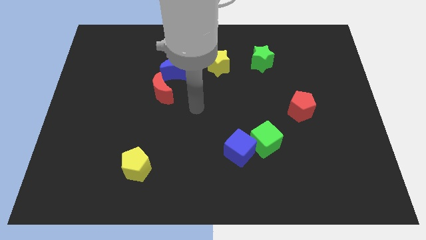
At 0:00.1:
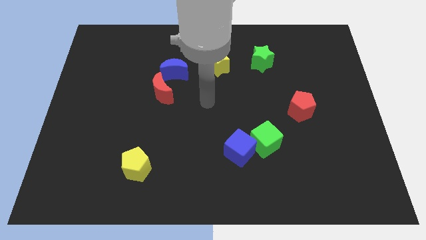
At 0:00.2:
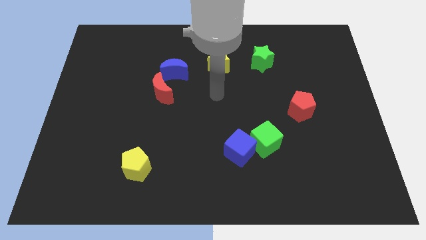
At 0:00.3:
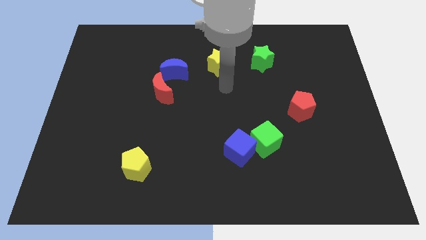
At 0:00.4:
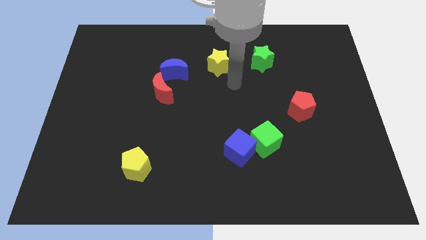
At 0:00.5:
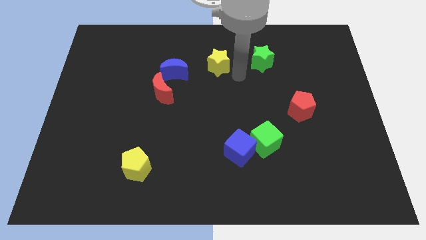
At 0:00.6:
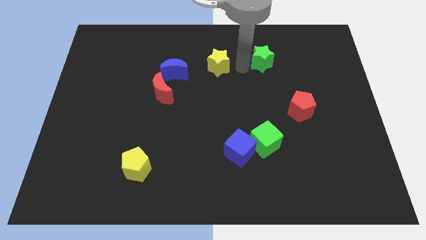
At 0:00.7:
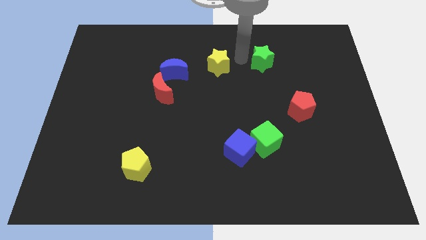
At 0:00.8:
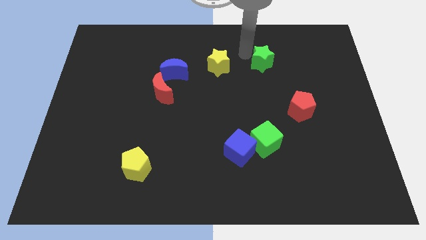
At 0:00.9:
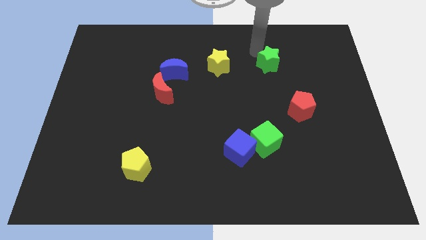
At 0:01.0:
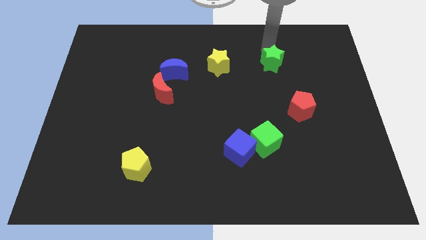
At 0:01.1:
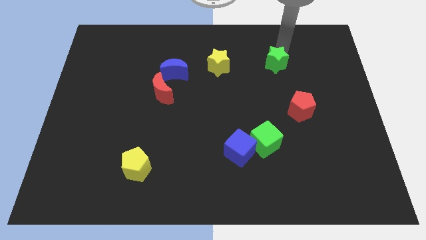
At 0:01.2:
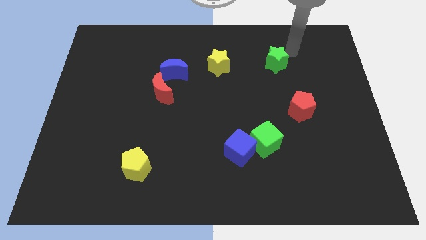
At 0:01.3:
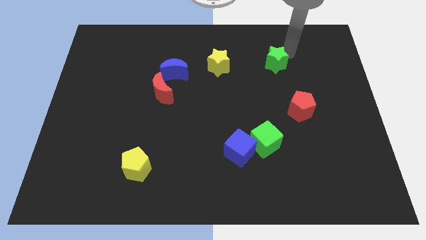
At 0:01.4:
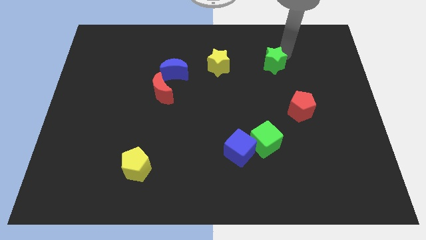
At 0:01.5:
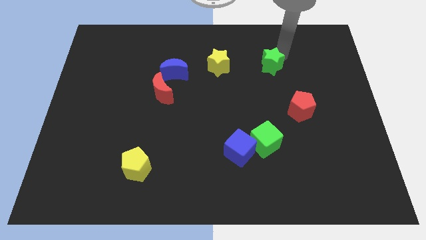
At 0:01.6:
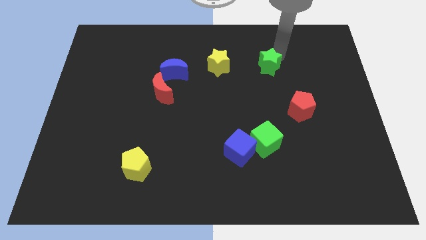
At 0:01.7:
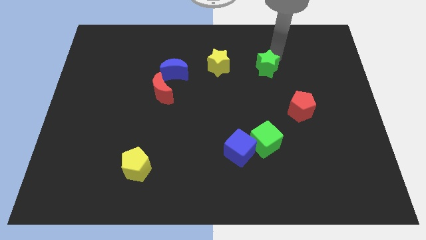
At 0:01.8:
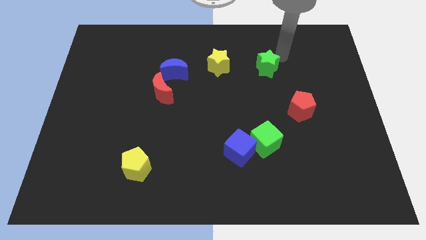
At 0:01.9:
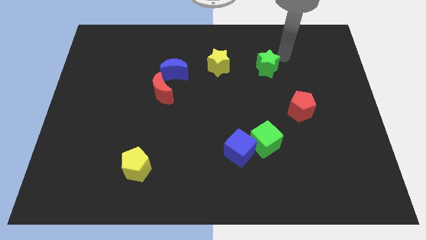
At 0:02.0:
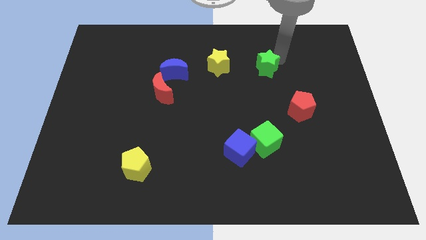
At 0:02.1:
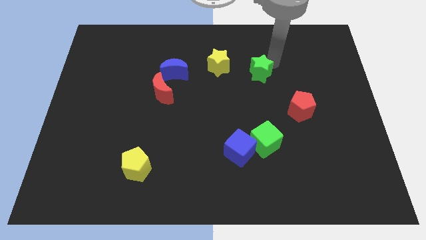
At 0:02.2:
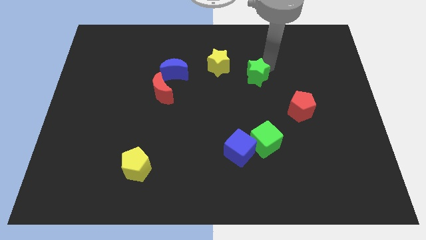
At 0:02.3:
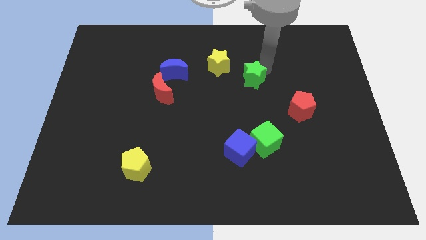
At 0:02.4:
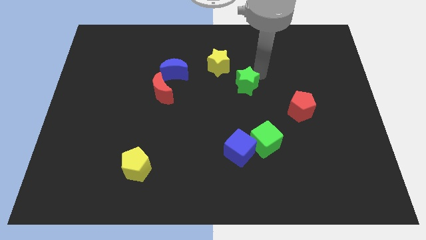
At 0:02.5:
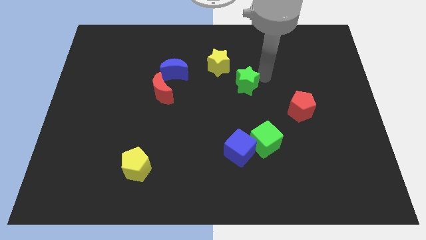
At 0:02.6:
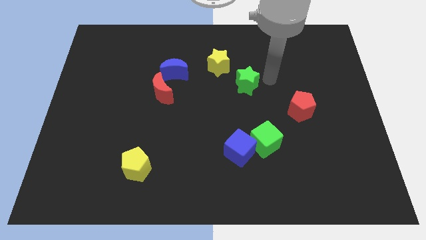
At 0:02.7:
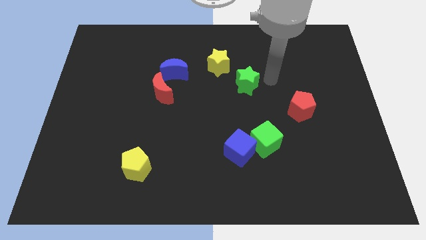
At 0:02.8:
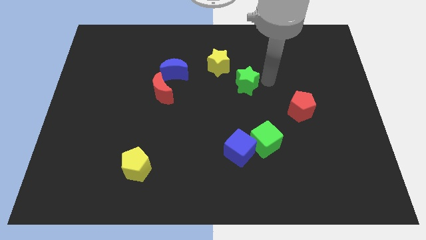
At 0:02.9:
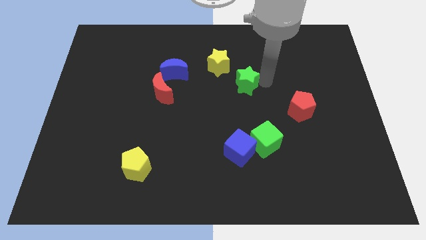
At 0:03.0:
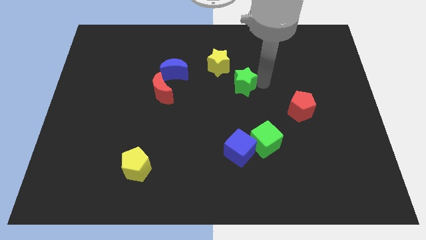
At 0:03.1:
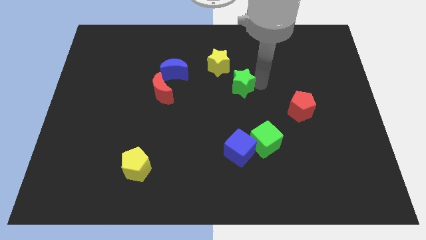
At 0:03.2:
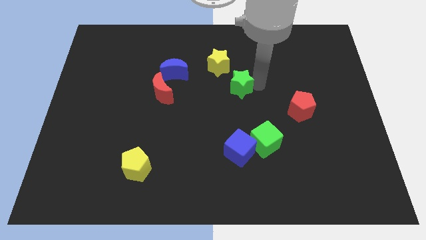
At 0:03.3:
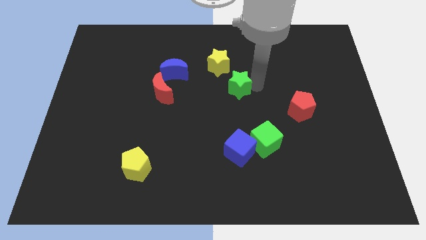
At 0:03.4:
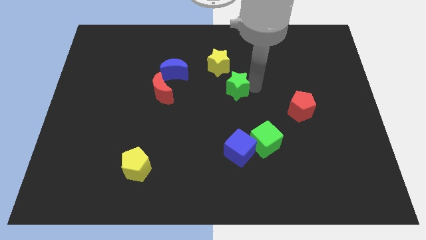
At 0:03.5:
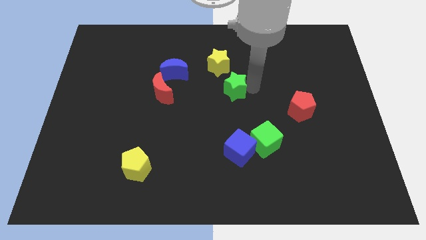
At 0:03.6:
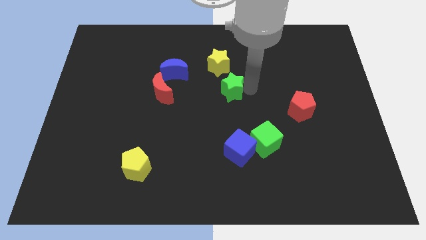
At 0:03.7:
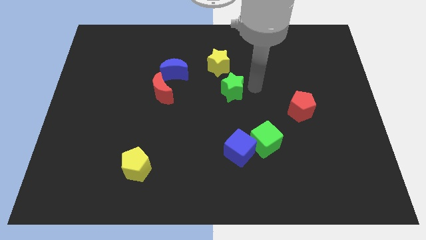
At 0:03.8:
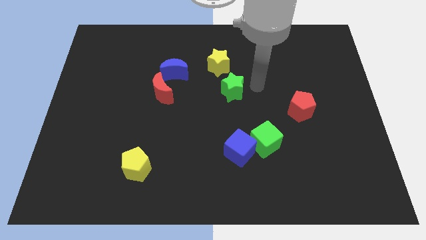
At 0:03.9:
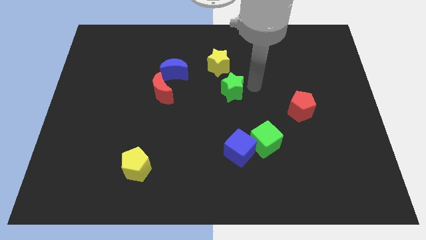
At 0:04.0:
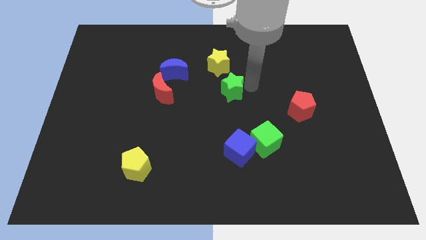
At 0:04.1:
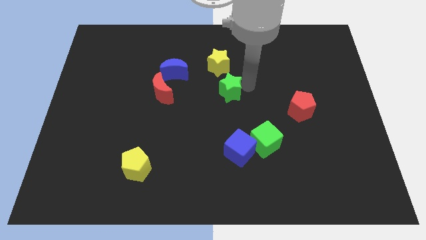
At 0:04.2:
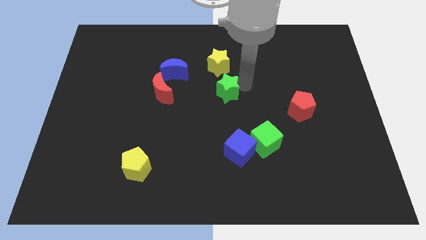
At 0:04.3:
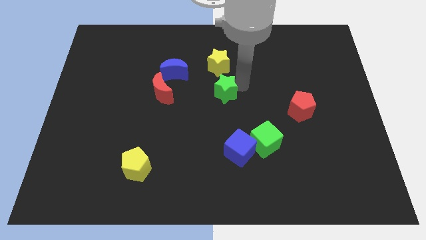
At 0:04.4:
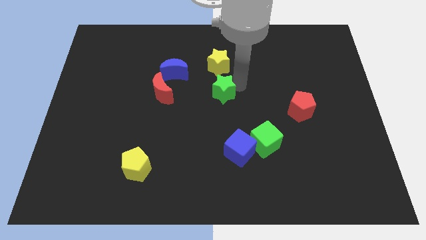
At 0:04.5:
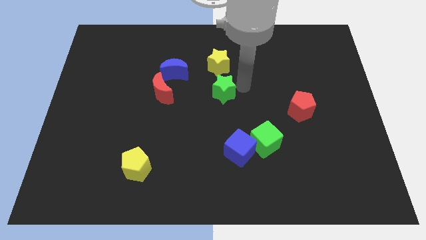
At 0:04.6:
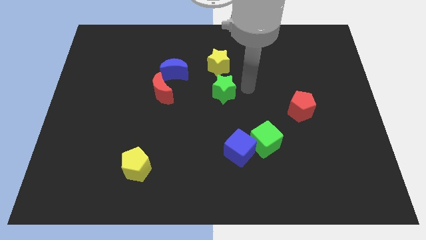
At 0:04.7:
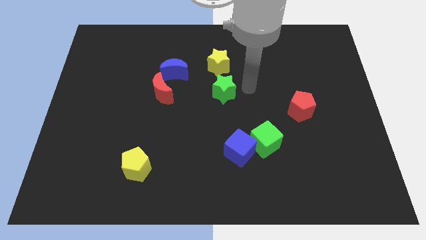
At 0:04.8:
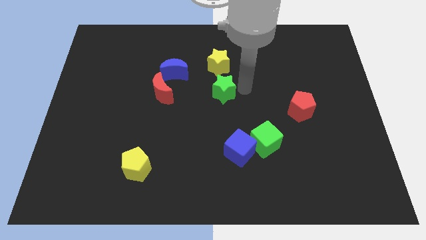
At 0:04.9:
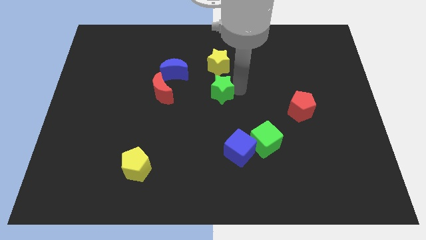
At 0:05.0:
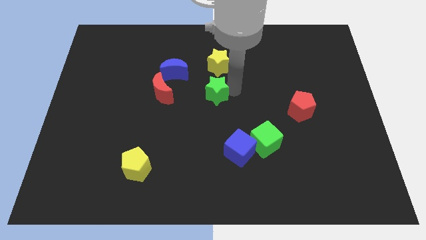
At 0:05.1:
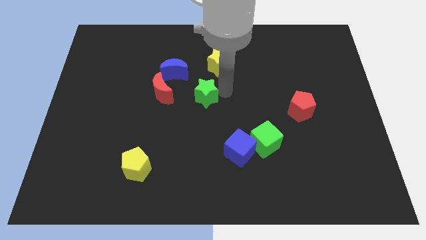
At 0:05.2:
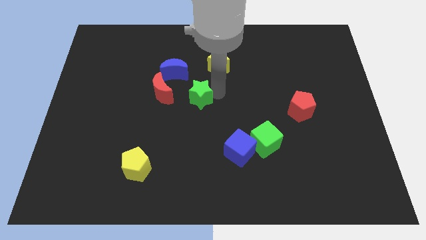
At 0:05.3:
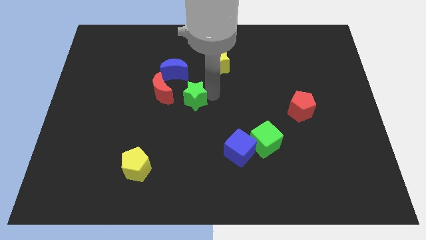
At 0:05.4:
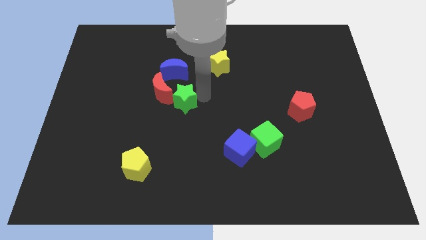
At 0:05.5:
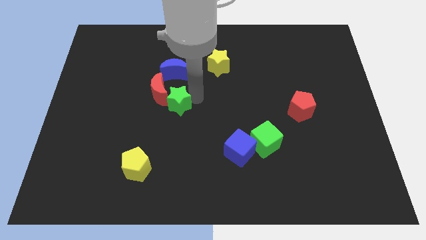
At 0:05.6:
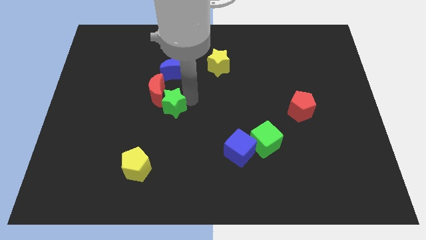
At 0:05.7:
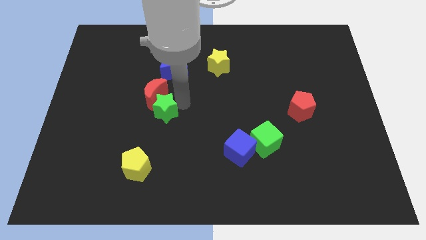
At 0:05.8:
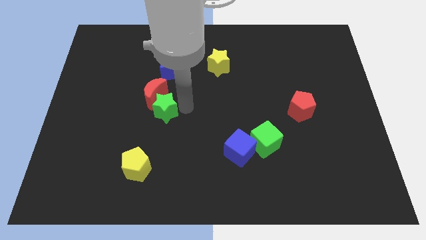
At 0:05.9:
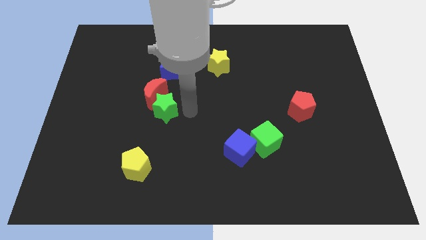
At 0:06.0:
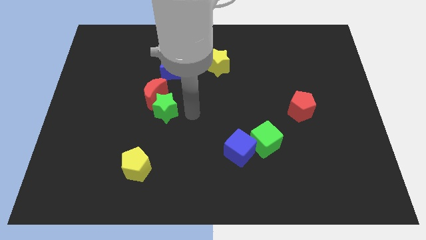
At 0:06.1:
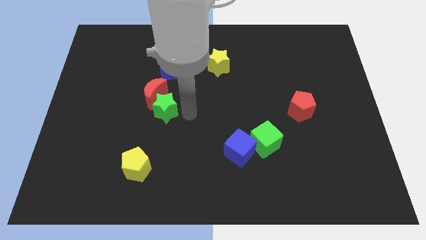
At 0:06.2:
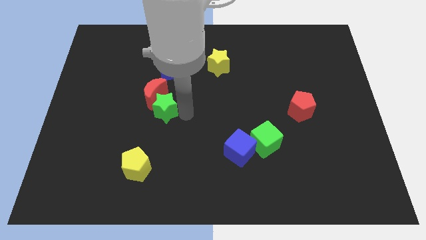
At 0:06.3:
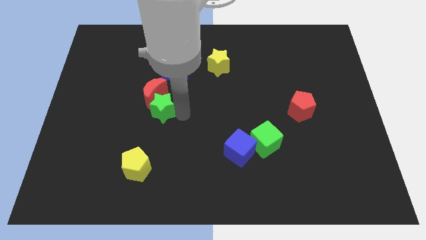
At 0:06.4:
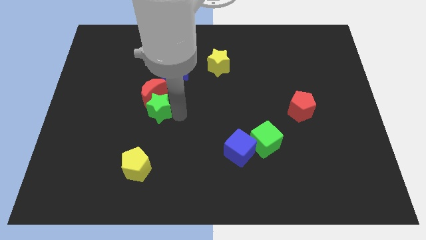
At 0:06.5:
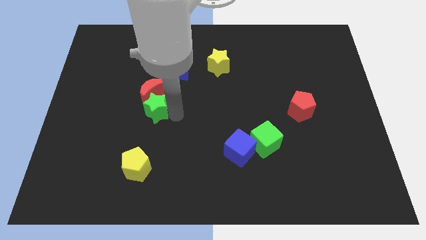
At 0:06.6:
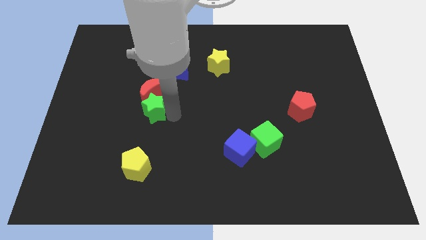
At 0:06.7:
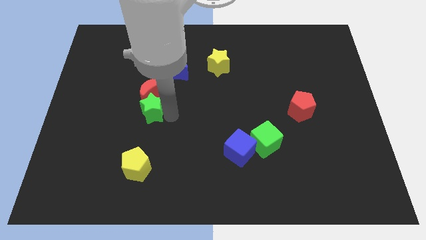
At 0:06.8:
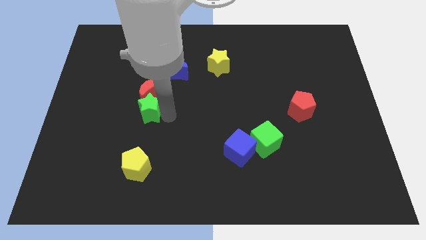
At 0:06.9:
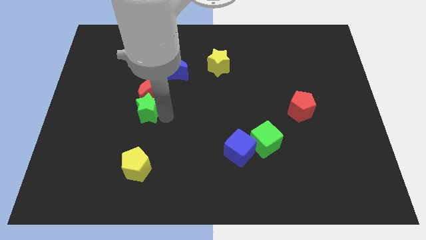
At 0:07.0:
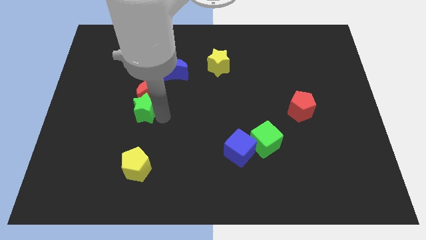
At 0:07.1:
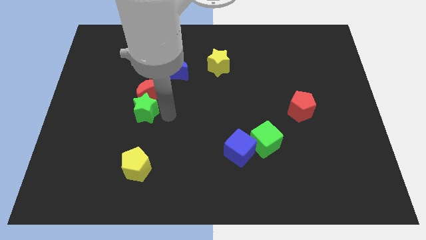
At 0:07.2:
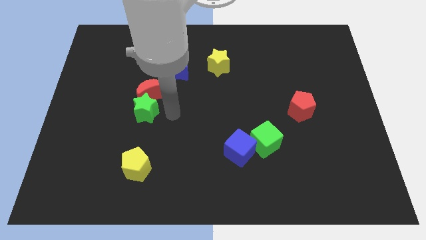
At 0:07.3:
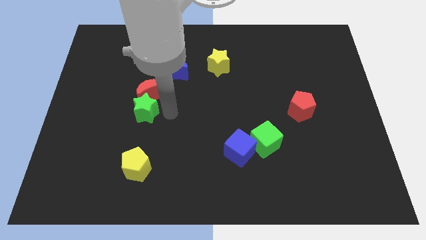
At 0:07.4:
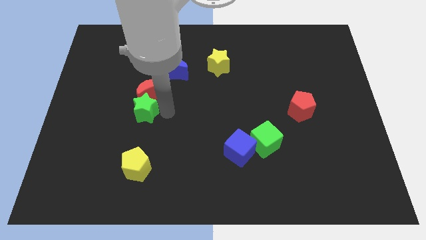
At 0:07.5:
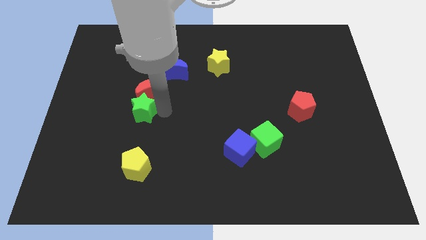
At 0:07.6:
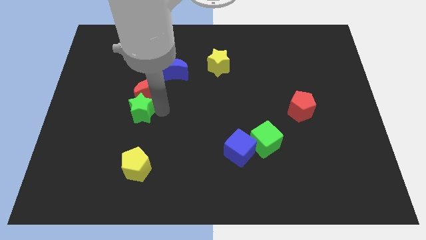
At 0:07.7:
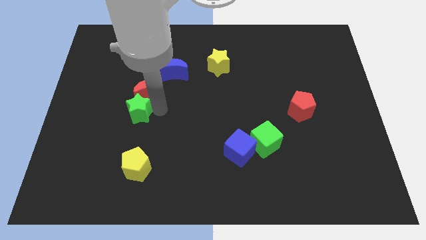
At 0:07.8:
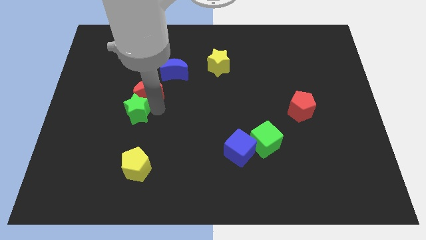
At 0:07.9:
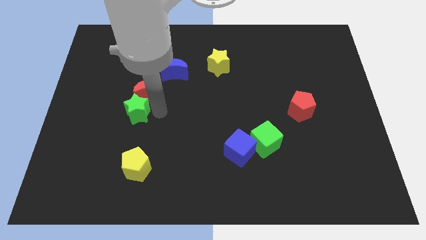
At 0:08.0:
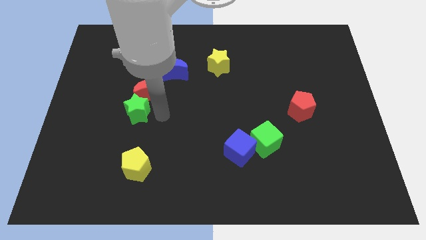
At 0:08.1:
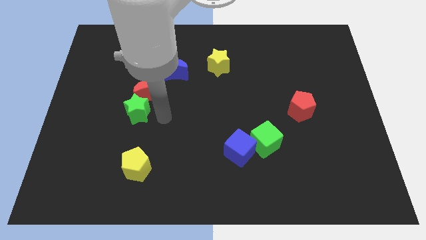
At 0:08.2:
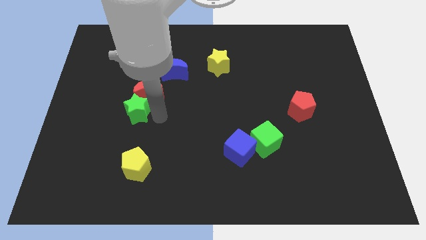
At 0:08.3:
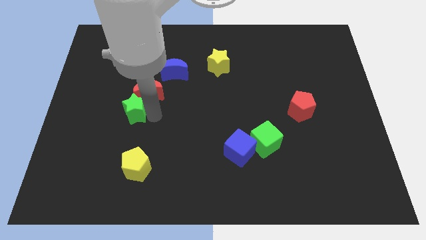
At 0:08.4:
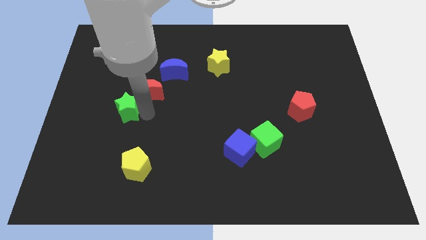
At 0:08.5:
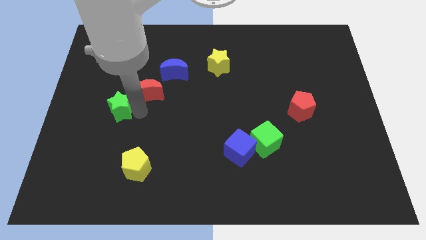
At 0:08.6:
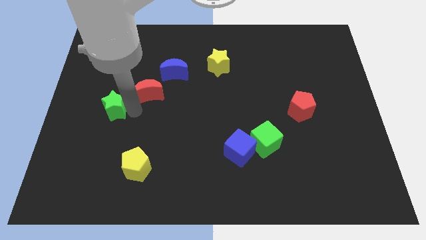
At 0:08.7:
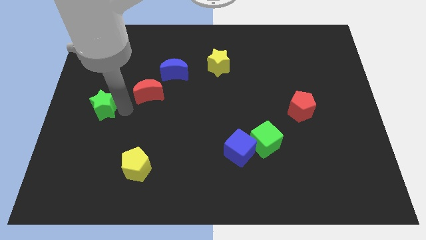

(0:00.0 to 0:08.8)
put the green star to the left side
